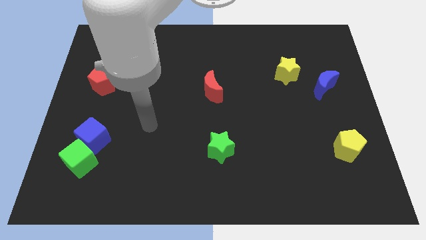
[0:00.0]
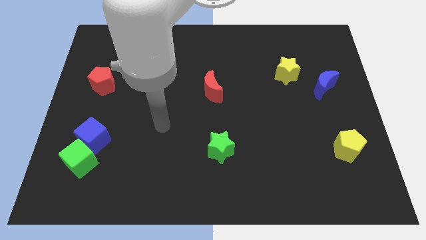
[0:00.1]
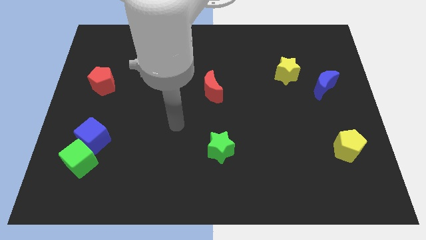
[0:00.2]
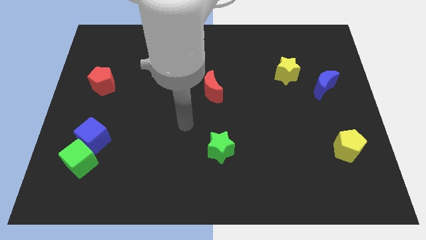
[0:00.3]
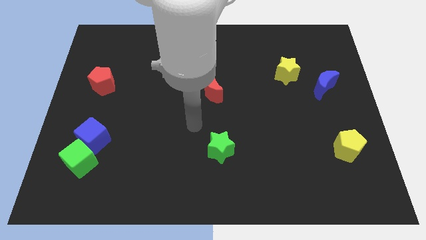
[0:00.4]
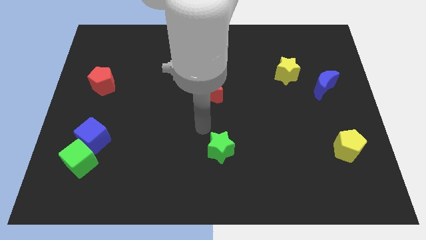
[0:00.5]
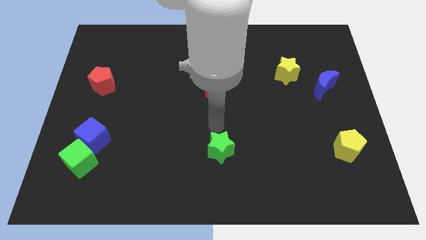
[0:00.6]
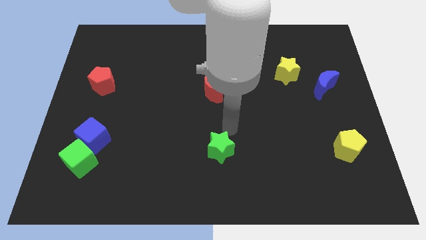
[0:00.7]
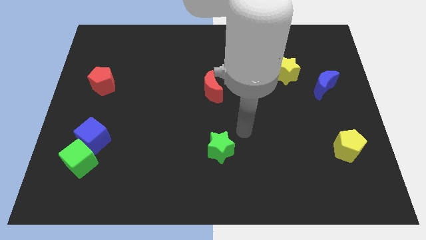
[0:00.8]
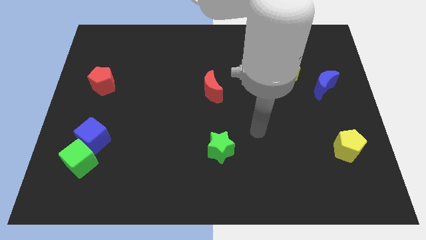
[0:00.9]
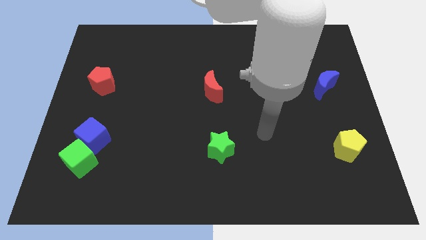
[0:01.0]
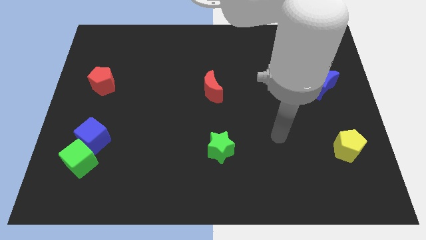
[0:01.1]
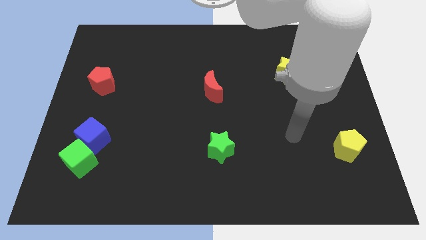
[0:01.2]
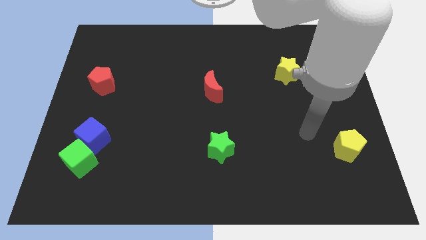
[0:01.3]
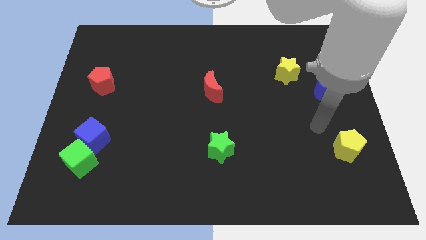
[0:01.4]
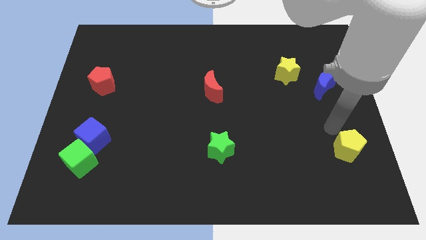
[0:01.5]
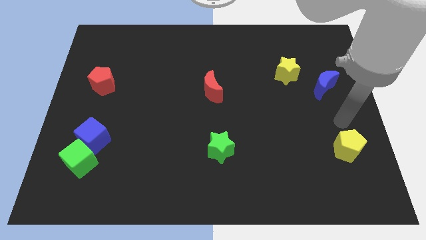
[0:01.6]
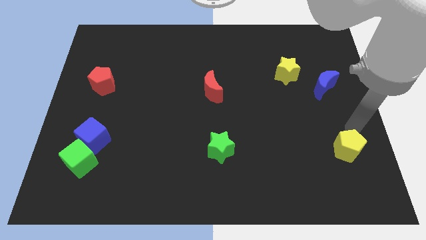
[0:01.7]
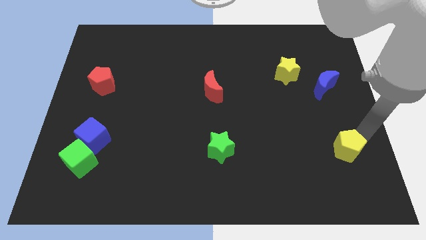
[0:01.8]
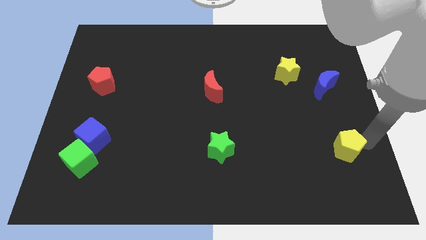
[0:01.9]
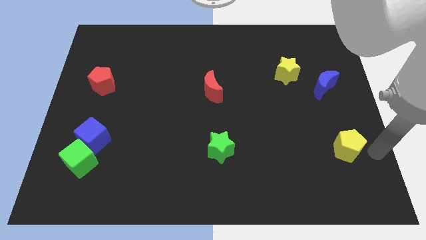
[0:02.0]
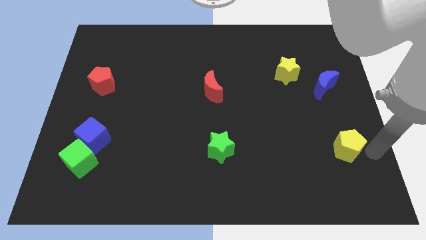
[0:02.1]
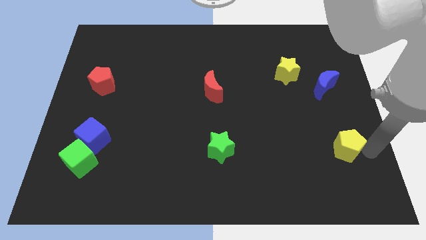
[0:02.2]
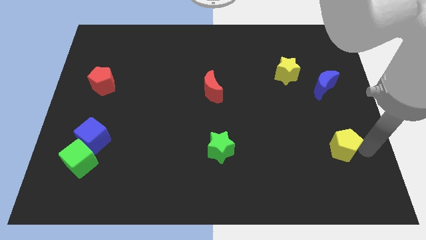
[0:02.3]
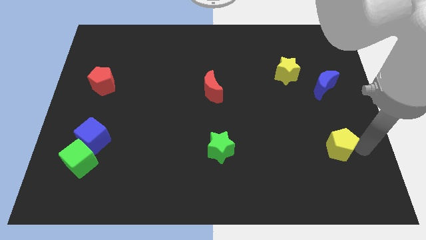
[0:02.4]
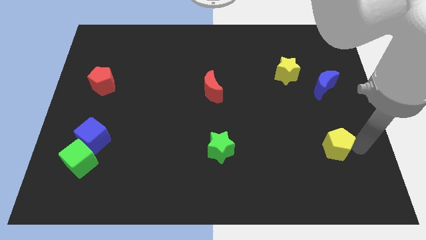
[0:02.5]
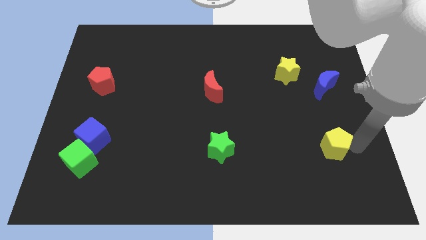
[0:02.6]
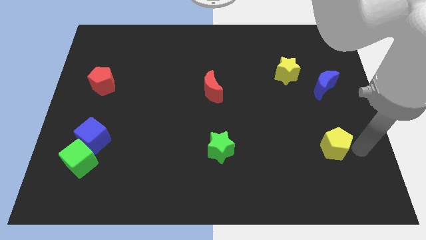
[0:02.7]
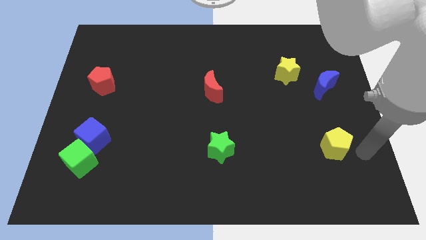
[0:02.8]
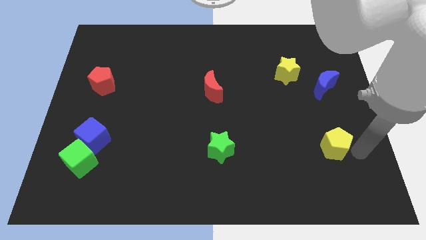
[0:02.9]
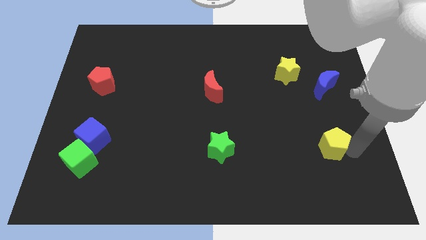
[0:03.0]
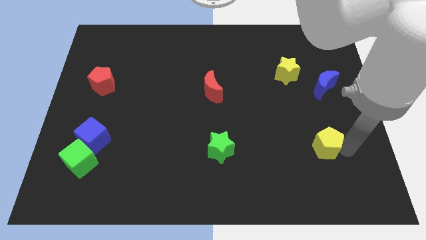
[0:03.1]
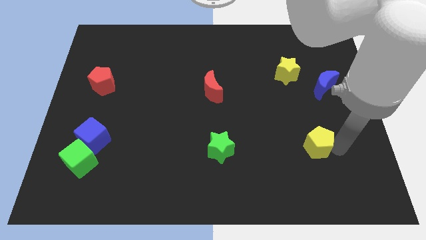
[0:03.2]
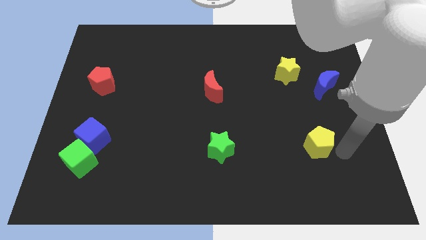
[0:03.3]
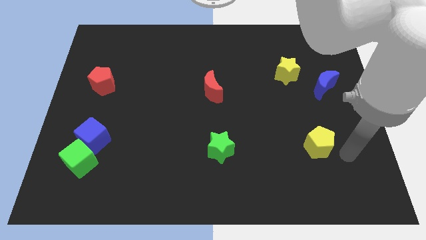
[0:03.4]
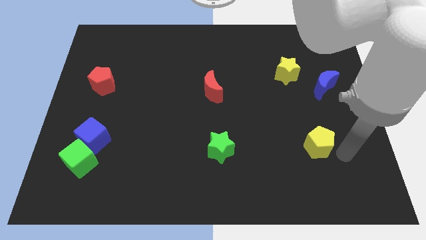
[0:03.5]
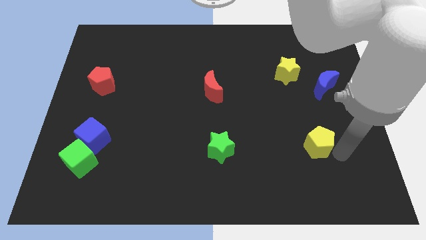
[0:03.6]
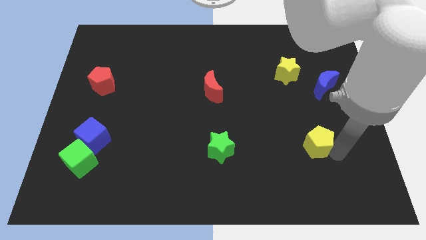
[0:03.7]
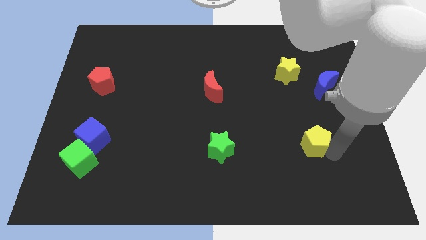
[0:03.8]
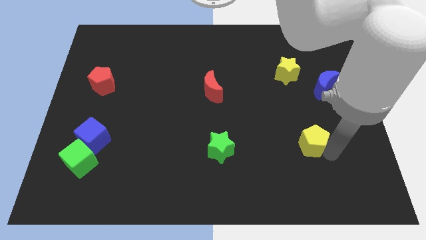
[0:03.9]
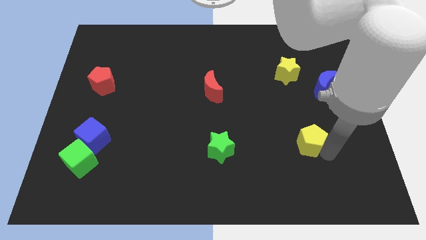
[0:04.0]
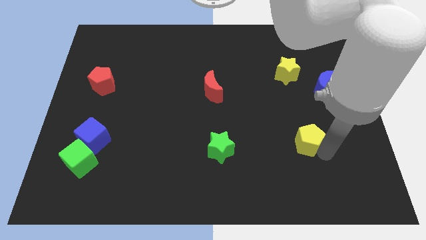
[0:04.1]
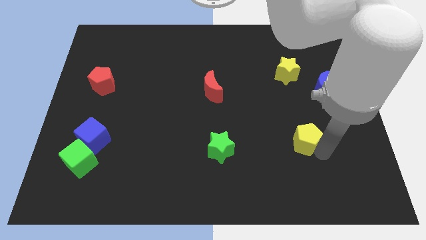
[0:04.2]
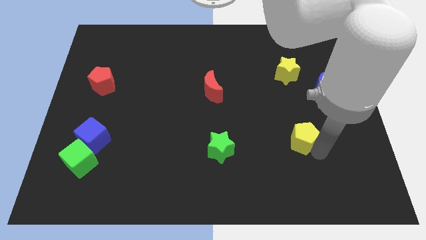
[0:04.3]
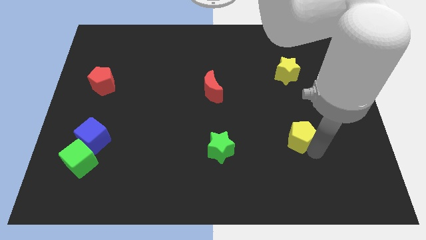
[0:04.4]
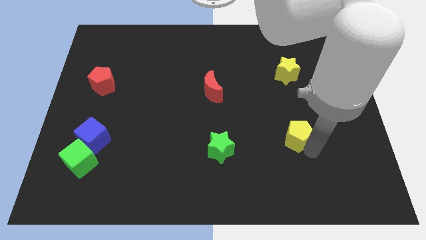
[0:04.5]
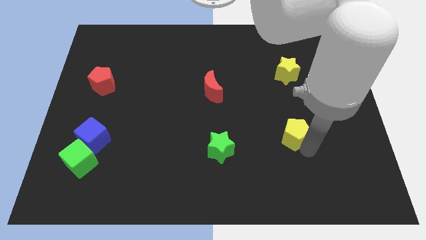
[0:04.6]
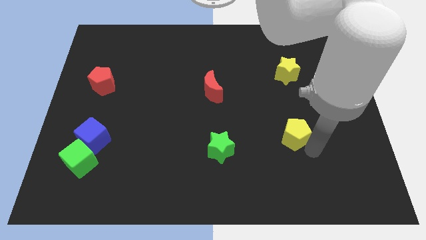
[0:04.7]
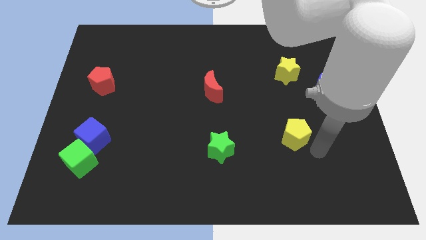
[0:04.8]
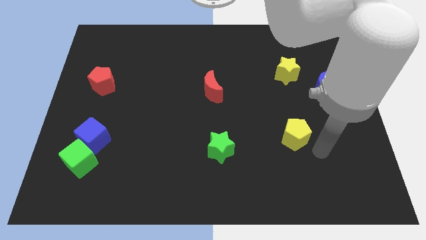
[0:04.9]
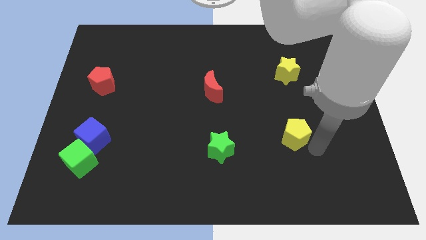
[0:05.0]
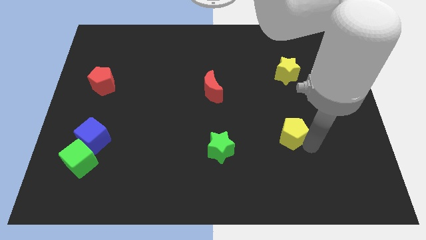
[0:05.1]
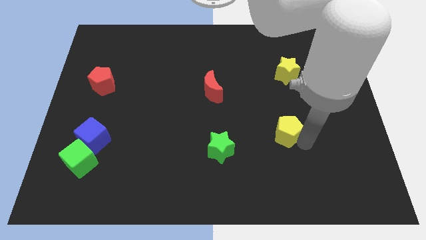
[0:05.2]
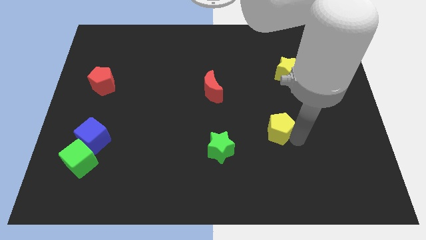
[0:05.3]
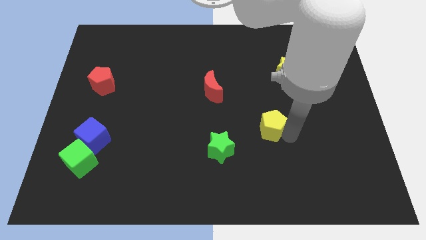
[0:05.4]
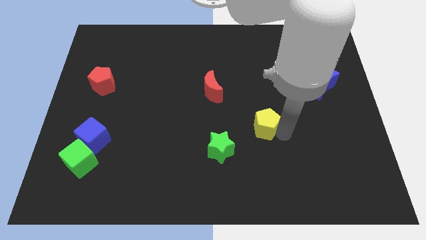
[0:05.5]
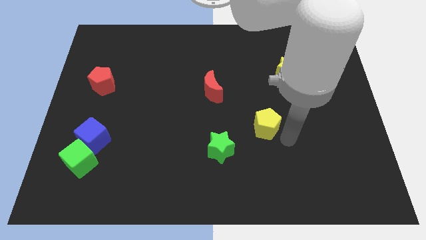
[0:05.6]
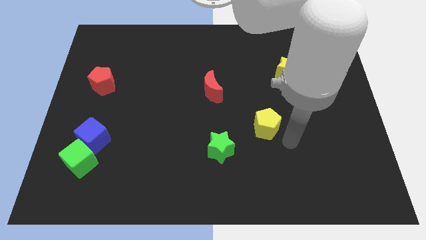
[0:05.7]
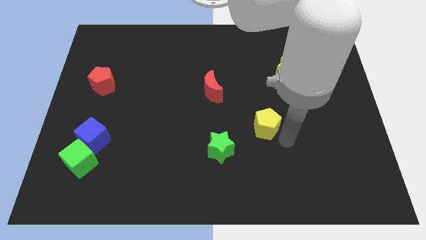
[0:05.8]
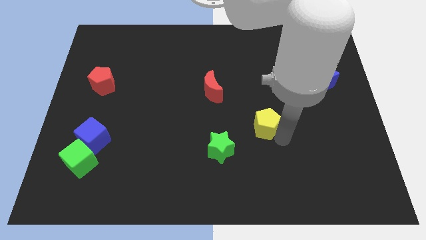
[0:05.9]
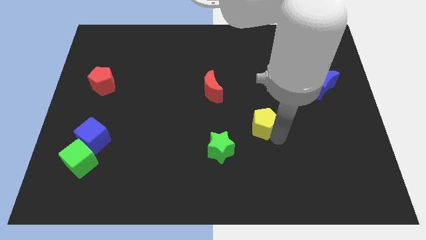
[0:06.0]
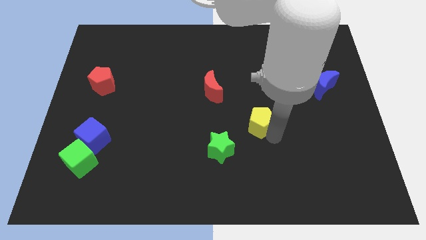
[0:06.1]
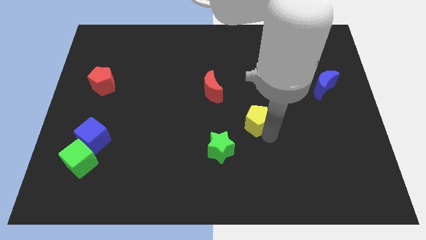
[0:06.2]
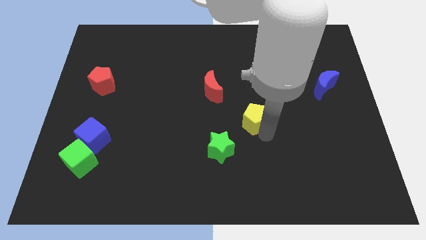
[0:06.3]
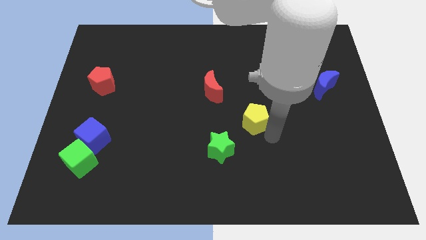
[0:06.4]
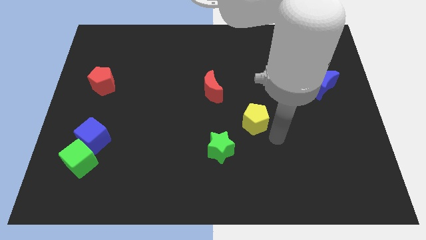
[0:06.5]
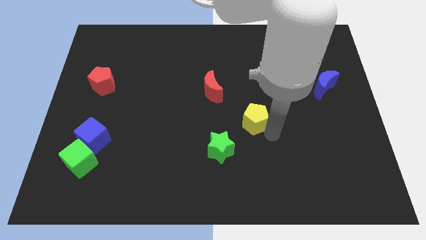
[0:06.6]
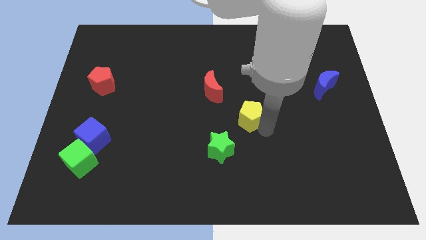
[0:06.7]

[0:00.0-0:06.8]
slide the yellow pentagon to the bottom right of the red moon

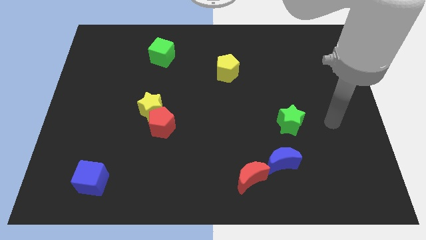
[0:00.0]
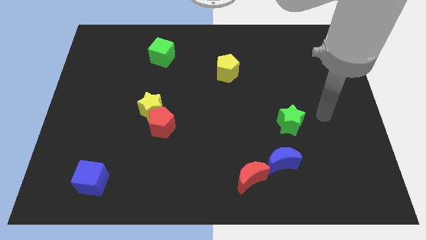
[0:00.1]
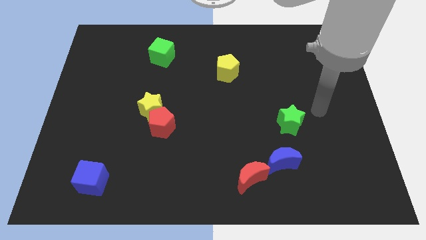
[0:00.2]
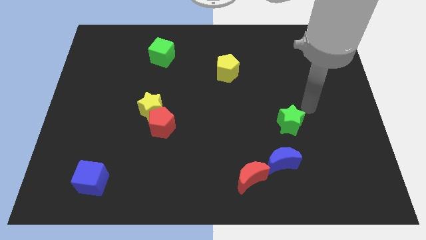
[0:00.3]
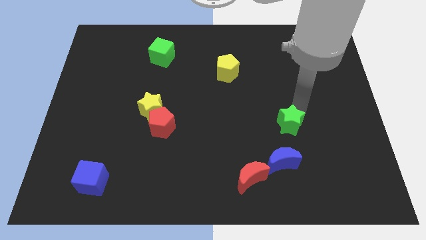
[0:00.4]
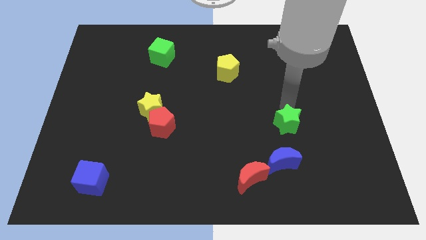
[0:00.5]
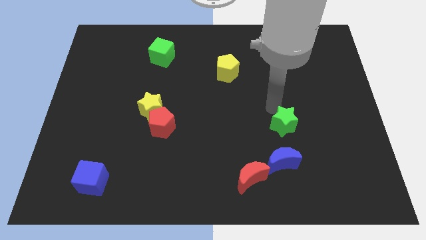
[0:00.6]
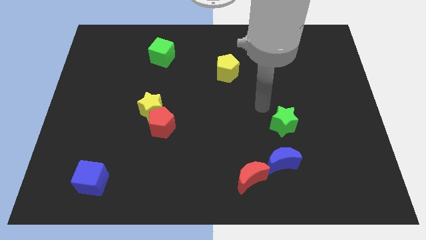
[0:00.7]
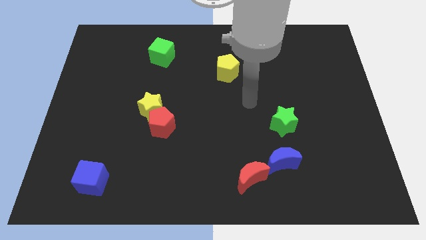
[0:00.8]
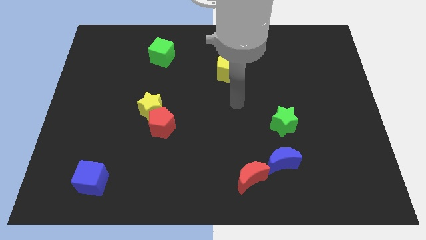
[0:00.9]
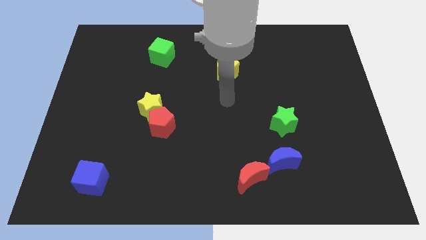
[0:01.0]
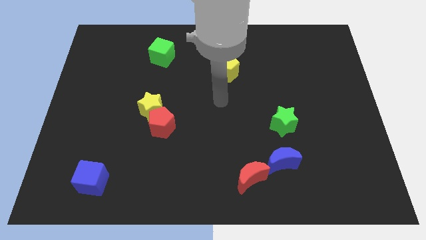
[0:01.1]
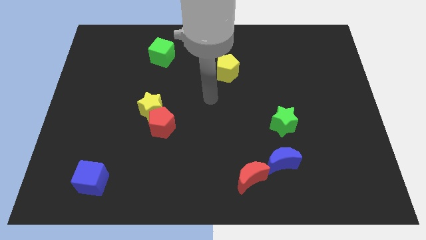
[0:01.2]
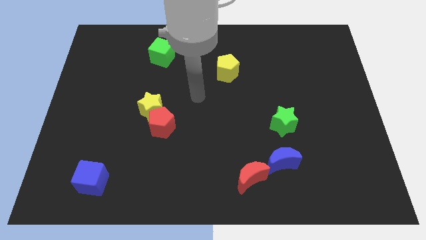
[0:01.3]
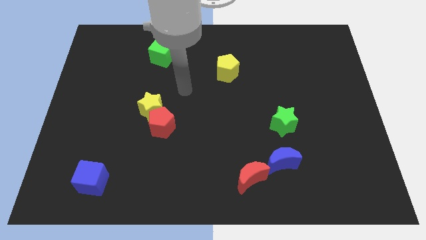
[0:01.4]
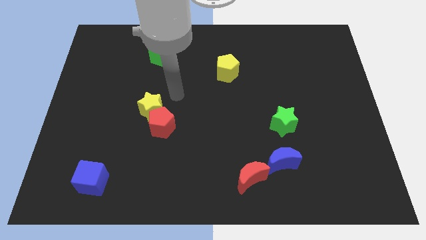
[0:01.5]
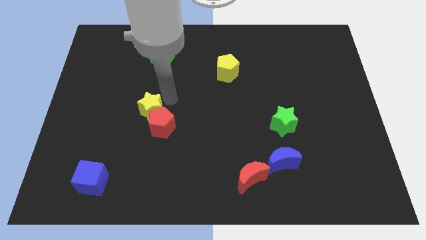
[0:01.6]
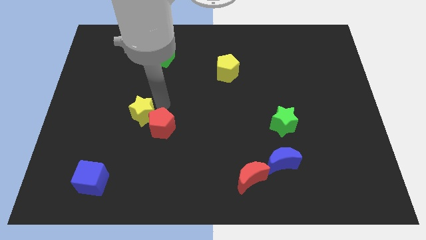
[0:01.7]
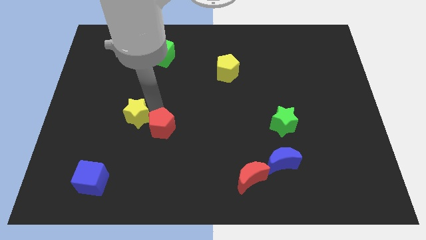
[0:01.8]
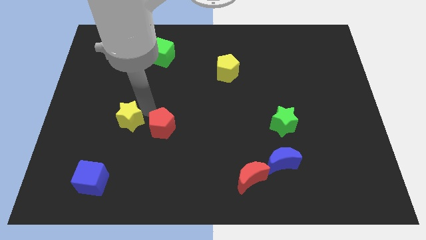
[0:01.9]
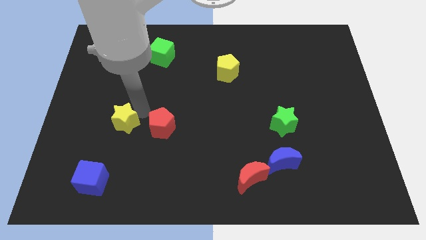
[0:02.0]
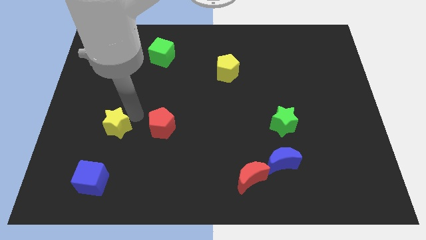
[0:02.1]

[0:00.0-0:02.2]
put the yellow star above the blue cube
